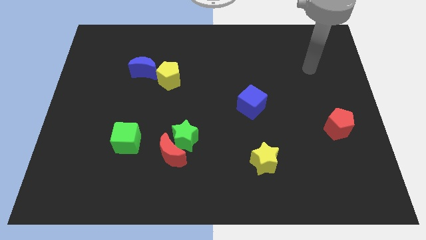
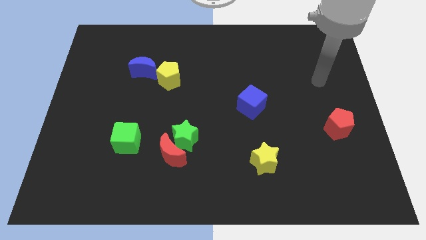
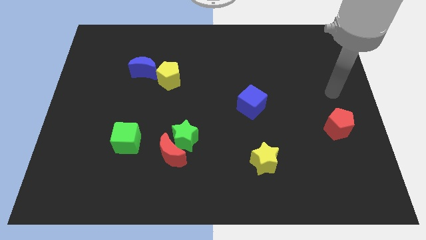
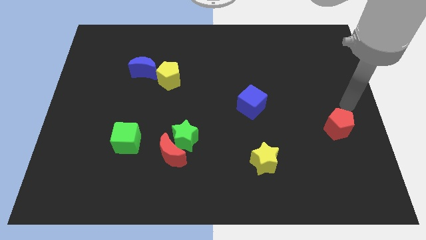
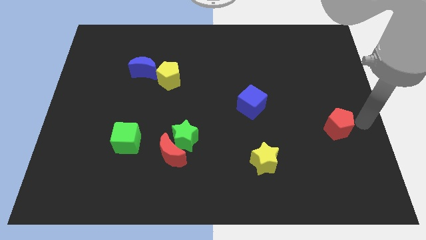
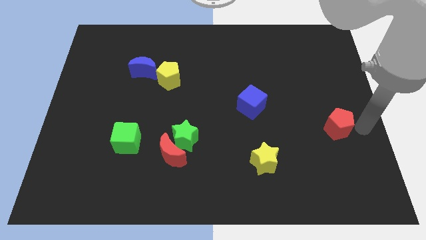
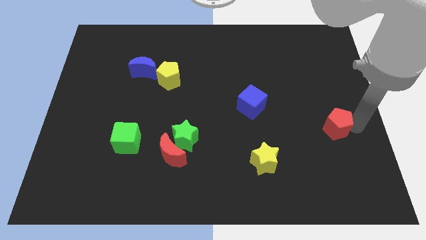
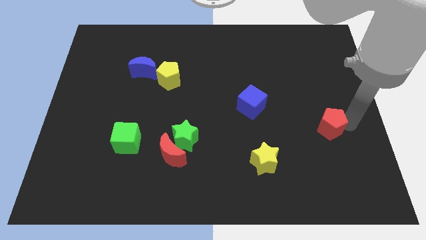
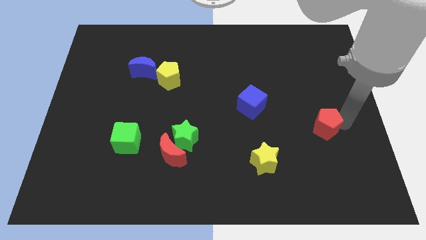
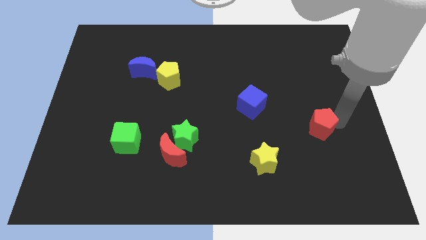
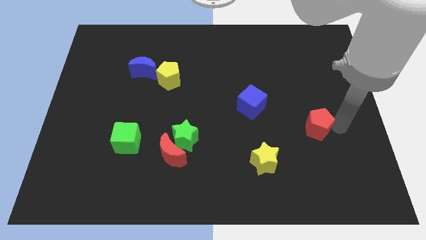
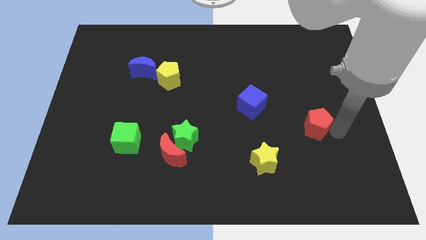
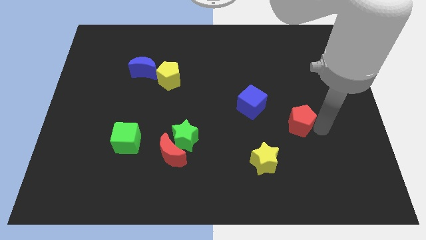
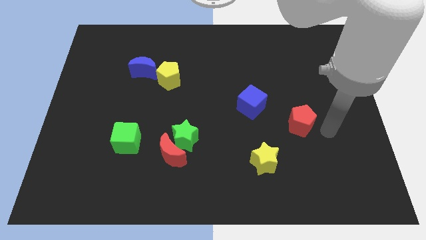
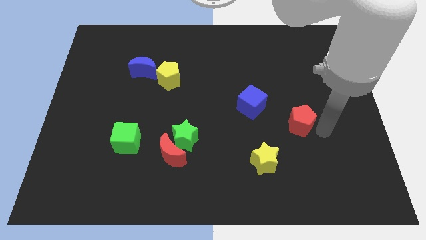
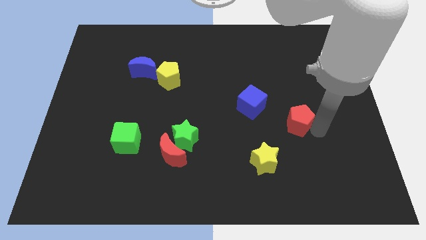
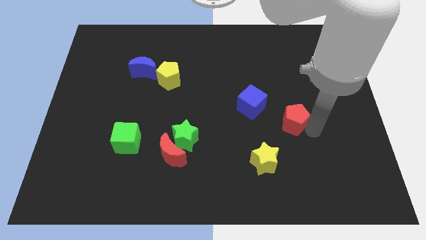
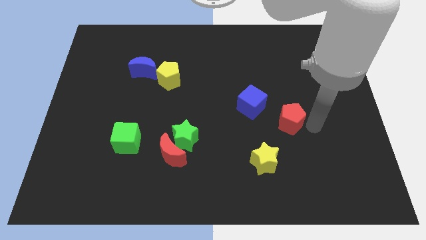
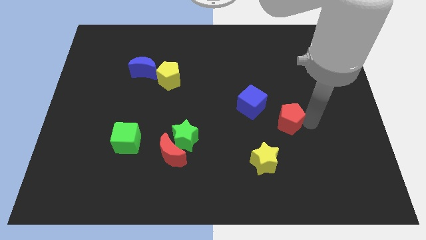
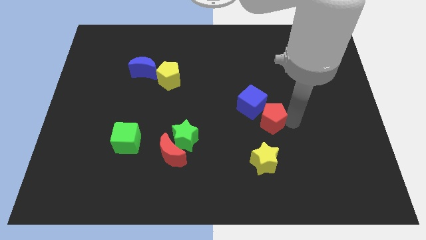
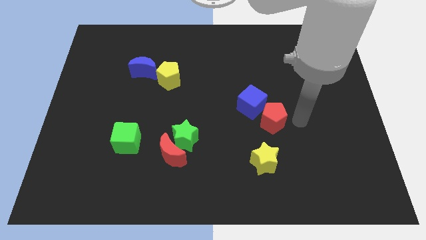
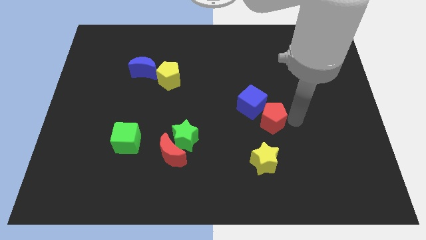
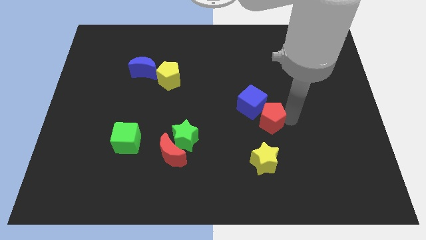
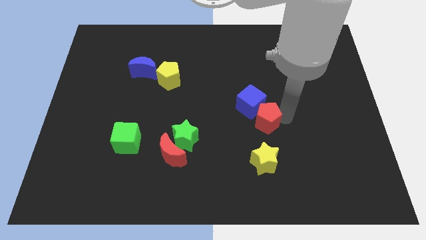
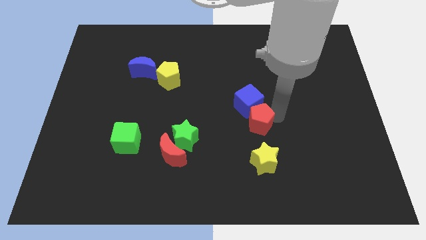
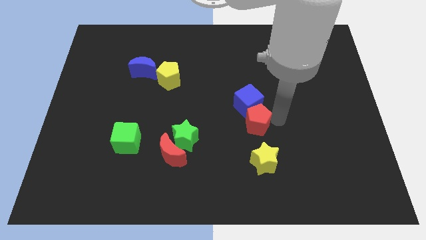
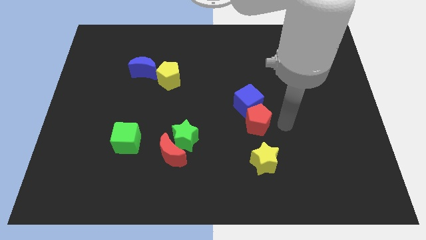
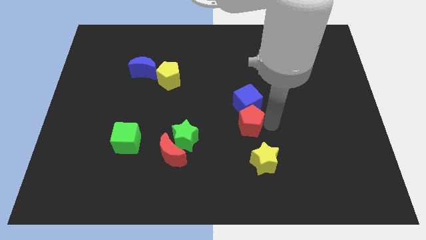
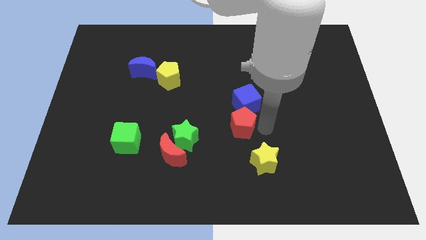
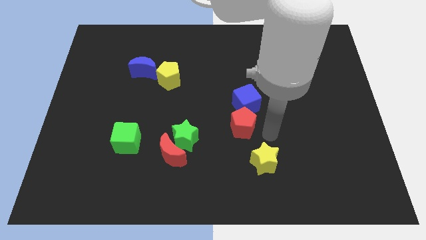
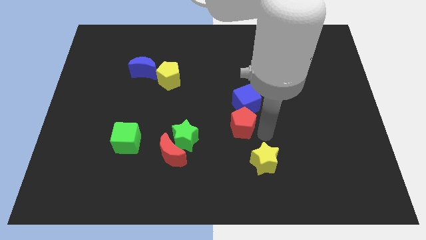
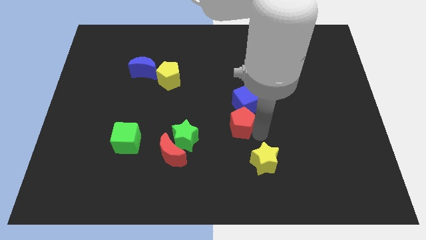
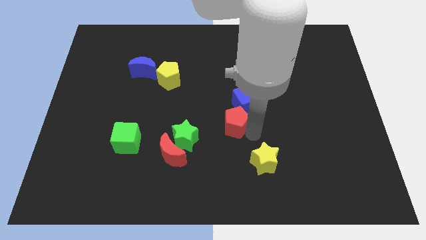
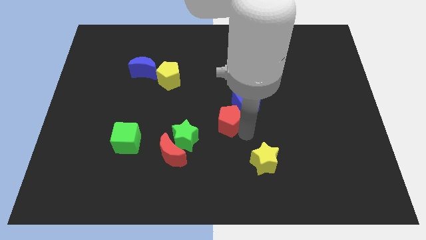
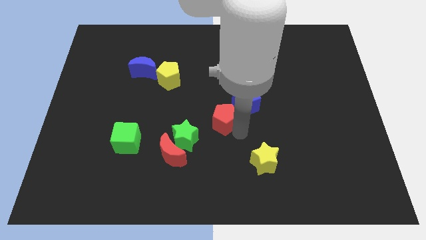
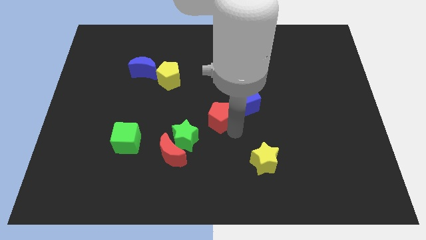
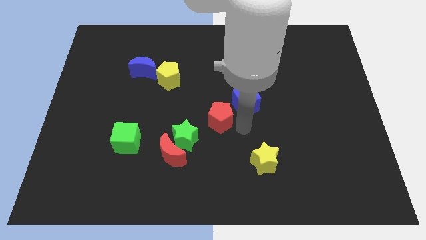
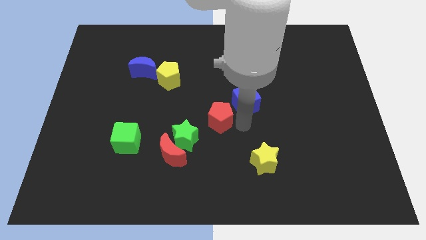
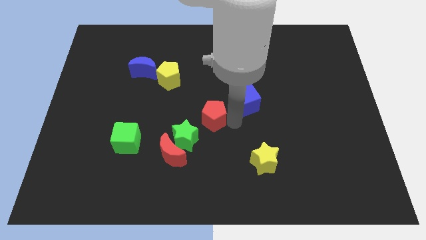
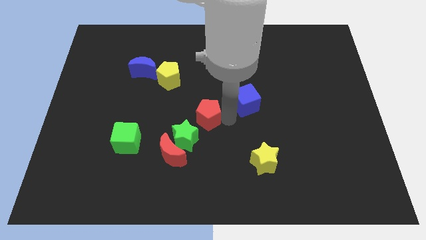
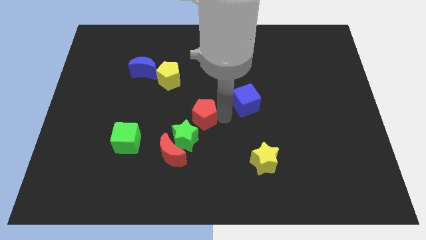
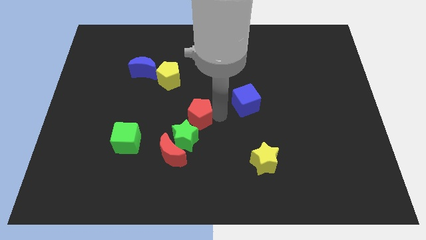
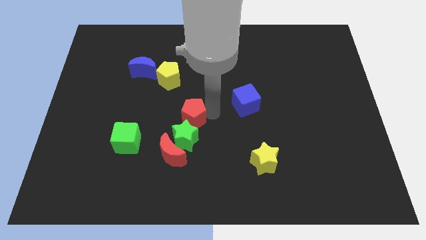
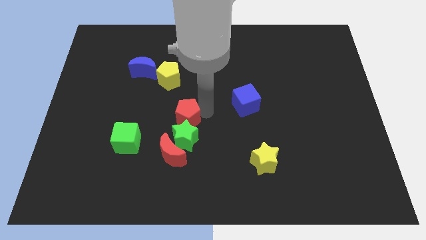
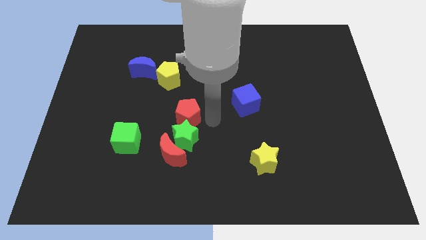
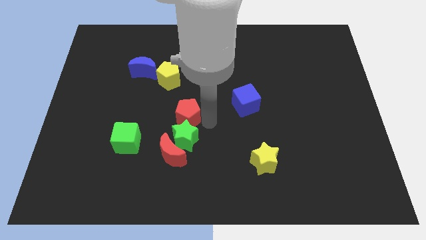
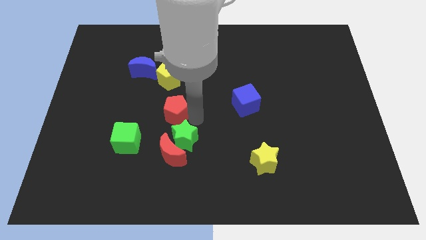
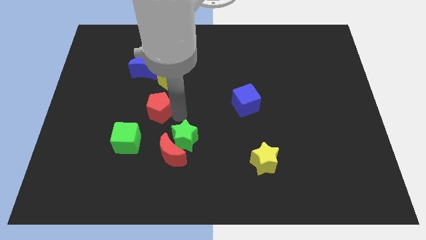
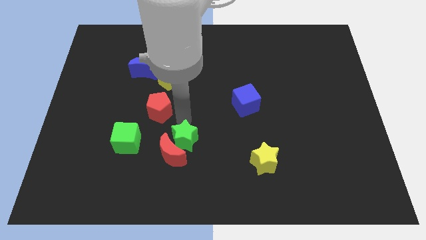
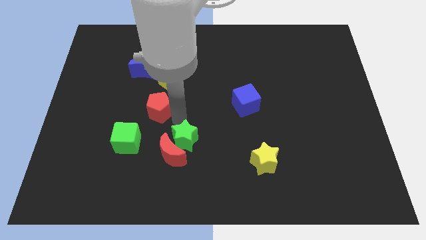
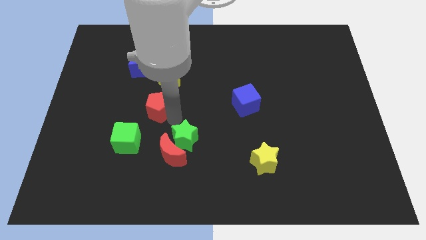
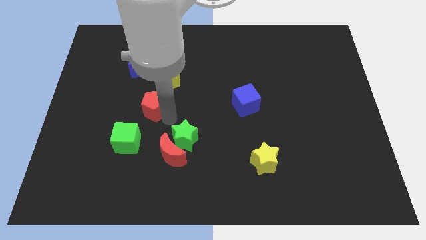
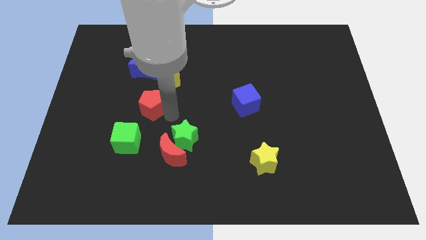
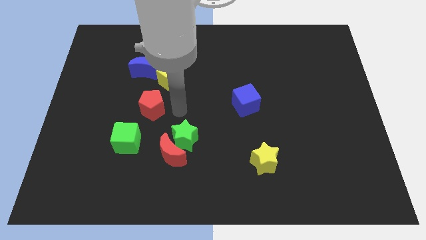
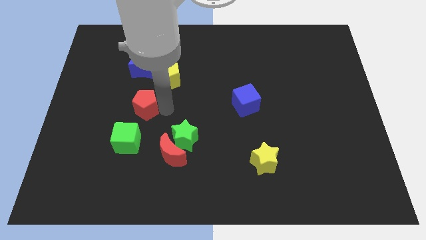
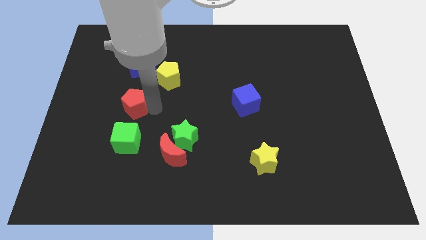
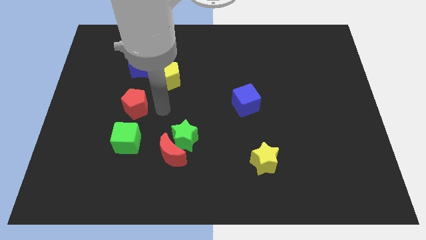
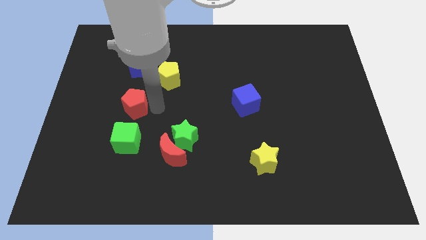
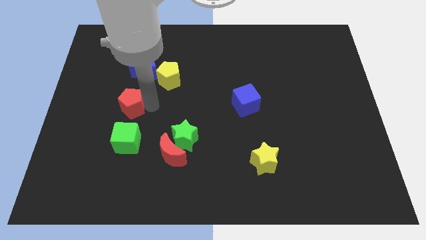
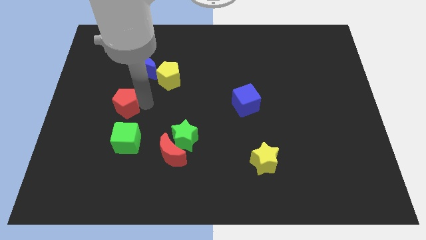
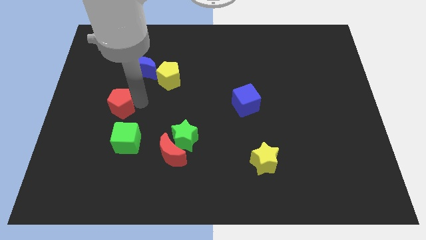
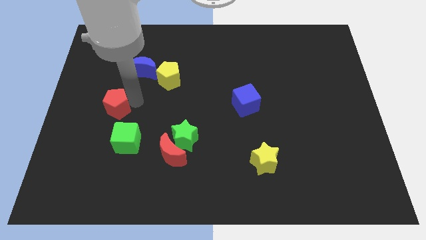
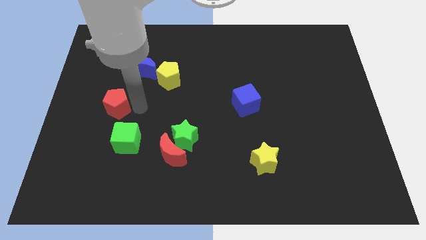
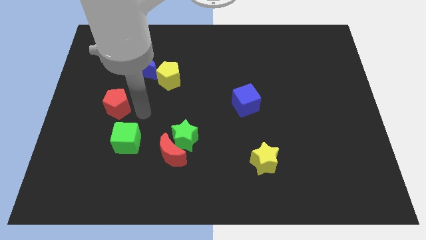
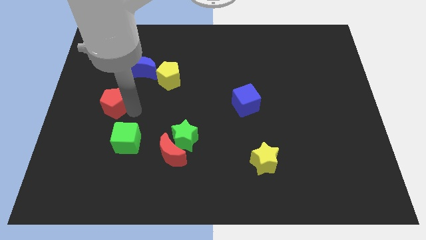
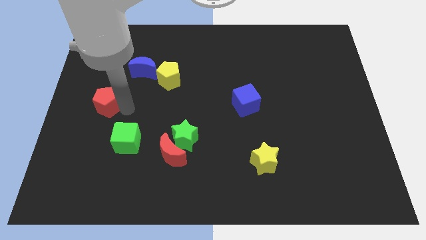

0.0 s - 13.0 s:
put the red pentagon to the left side of the board

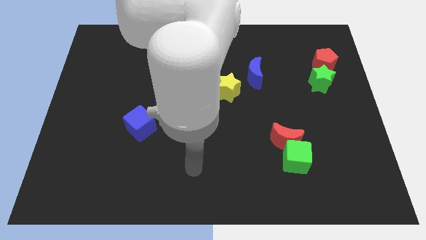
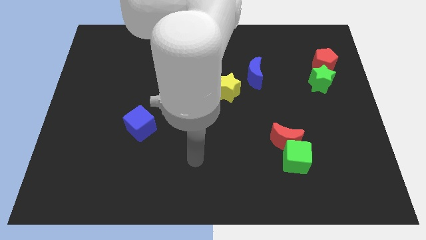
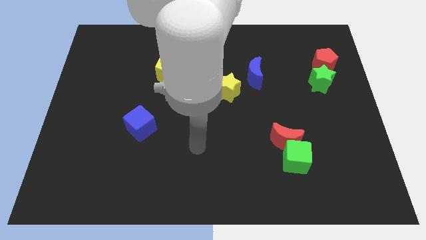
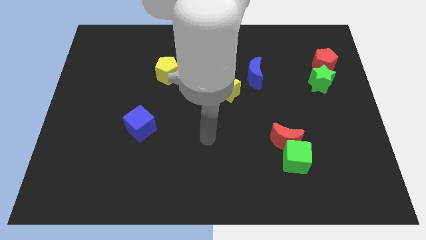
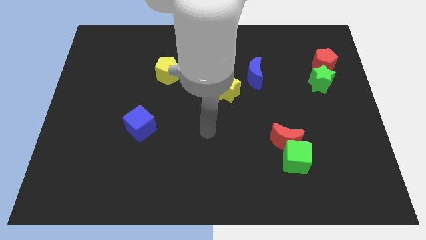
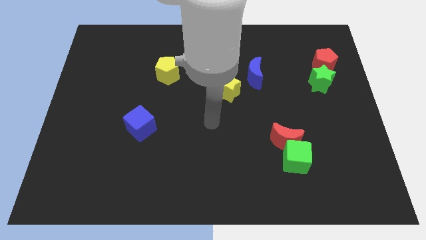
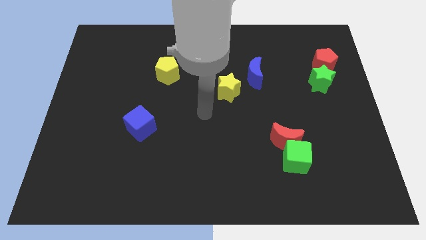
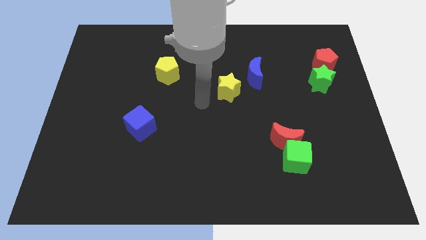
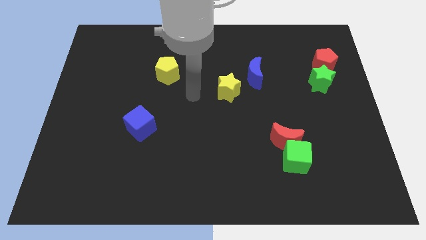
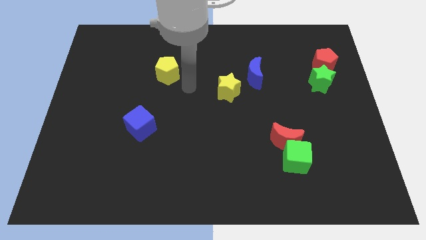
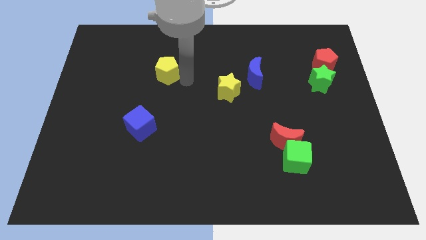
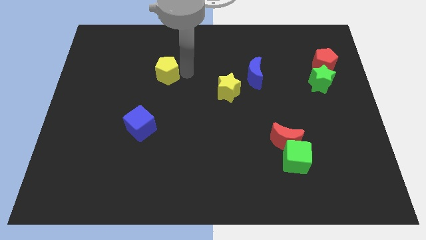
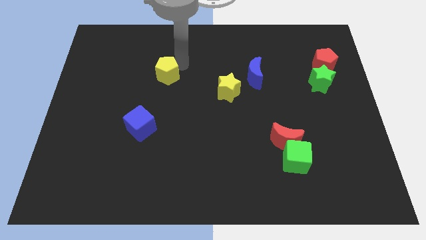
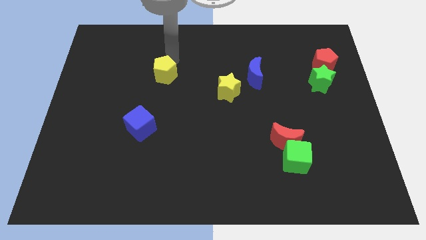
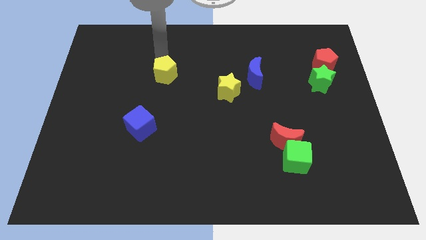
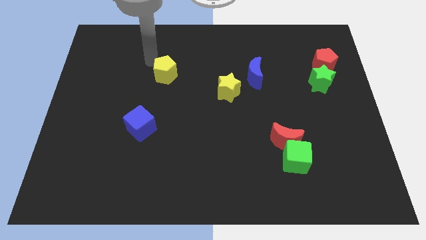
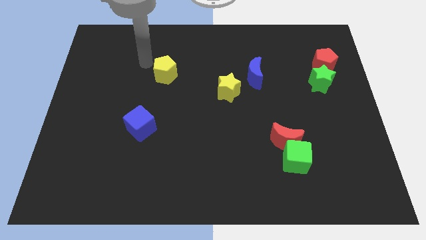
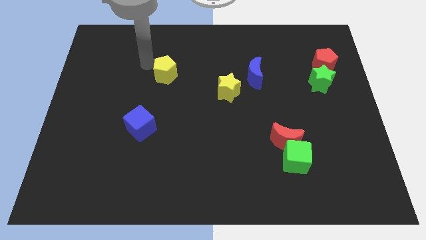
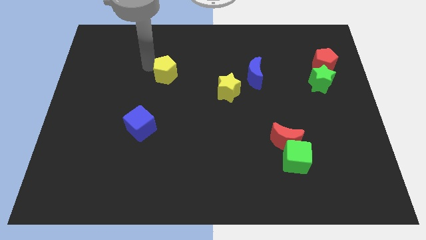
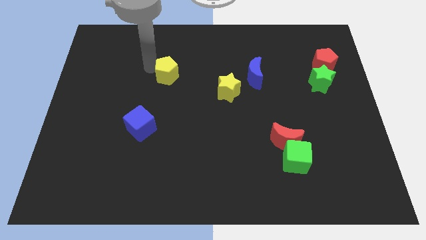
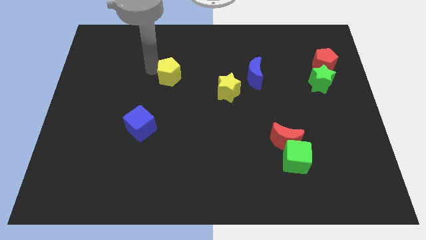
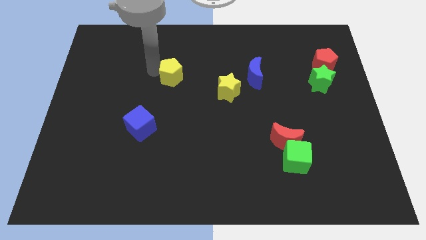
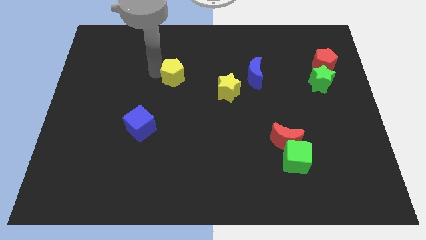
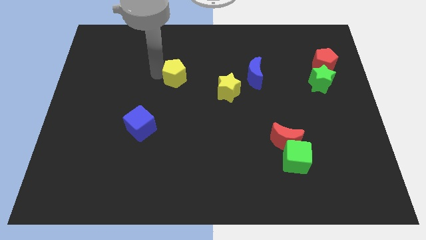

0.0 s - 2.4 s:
put the yellow pentagon to the middle of the board
